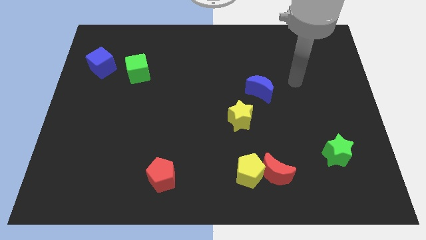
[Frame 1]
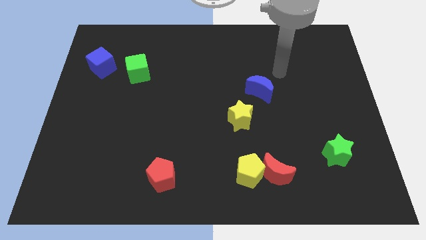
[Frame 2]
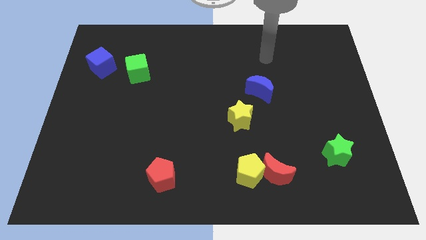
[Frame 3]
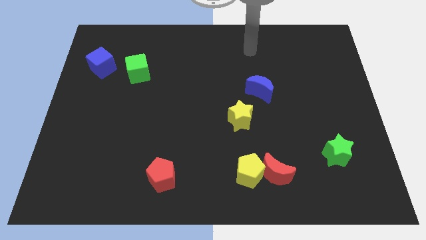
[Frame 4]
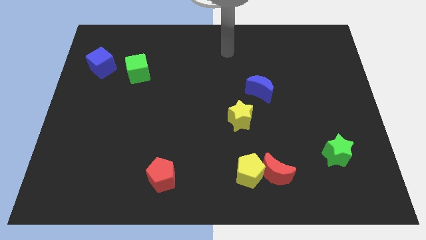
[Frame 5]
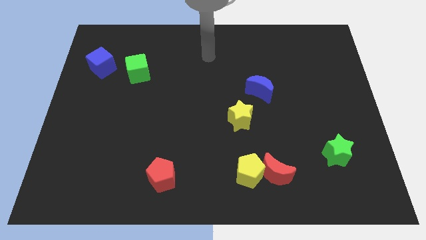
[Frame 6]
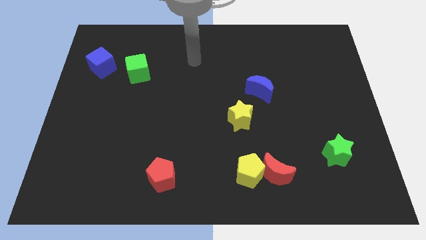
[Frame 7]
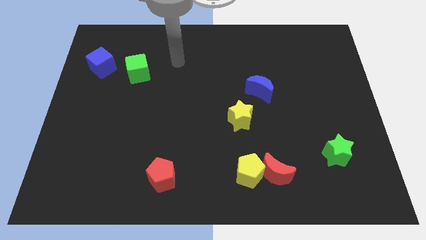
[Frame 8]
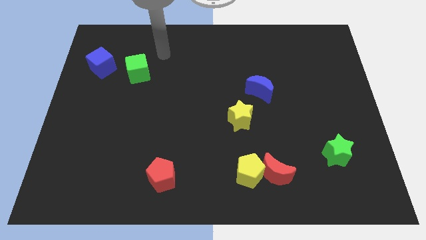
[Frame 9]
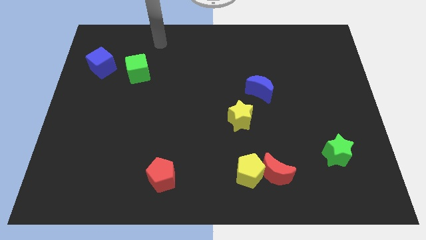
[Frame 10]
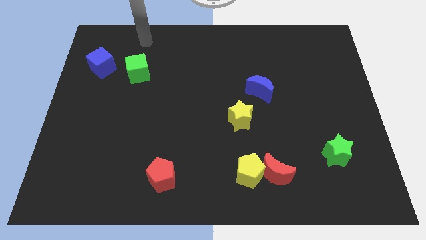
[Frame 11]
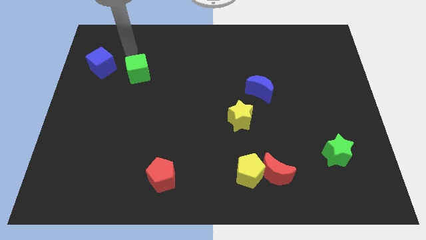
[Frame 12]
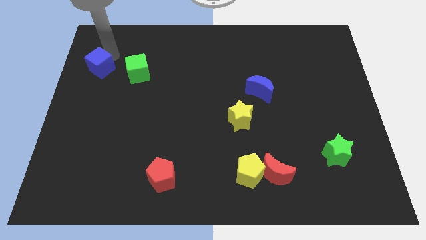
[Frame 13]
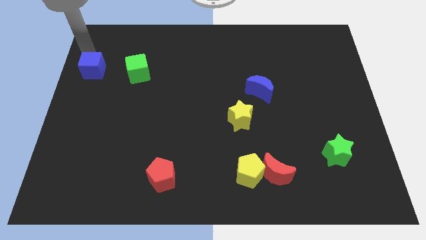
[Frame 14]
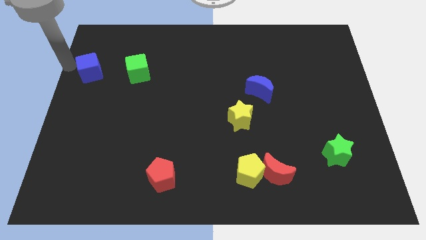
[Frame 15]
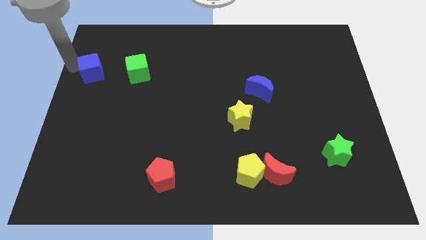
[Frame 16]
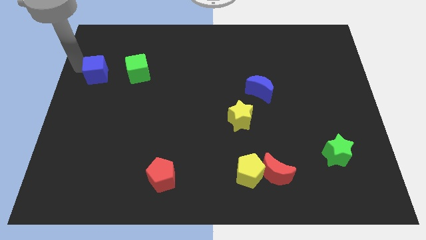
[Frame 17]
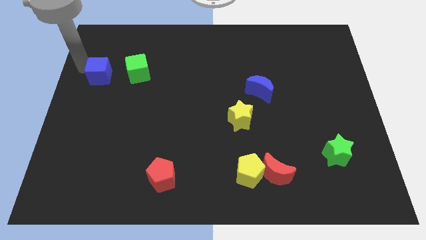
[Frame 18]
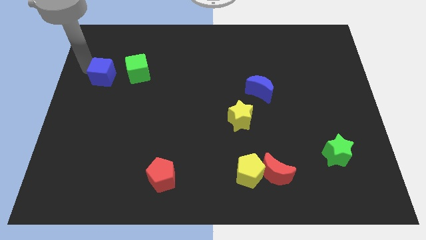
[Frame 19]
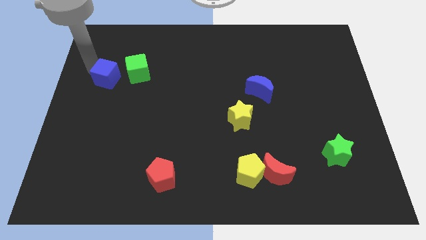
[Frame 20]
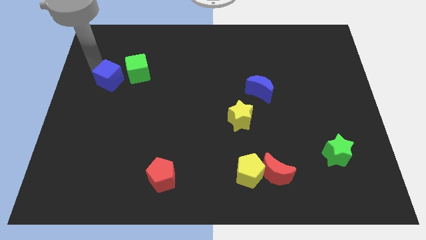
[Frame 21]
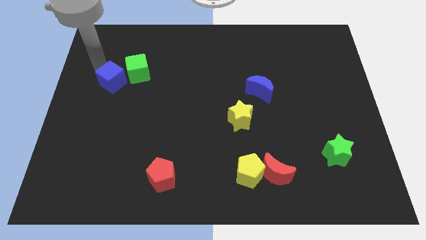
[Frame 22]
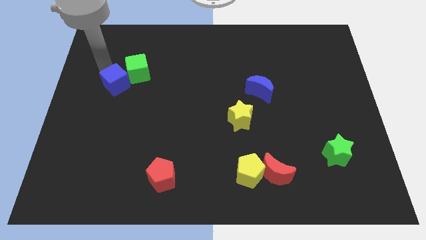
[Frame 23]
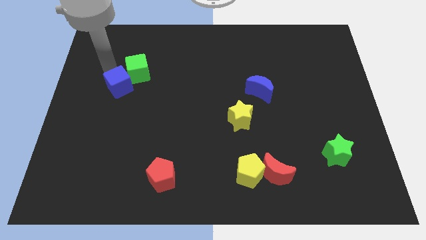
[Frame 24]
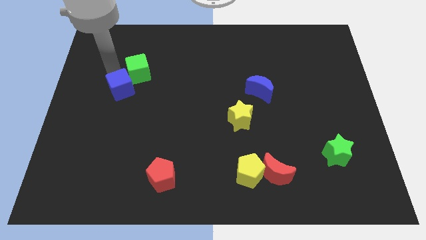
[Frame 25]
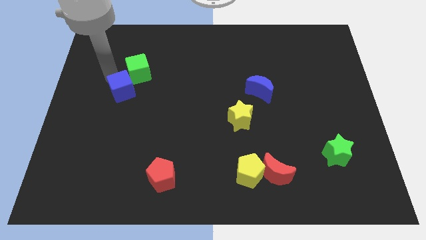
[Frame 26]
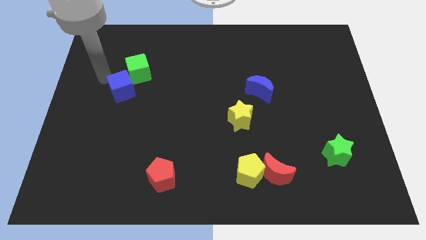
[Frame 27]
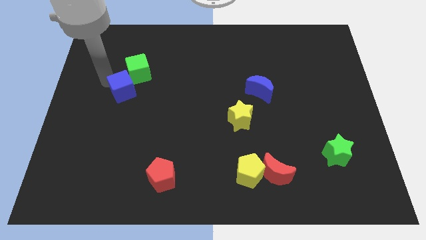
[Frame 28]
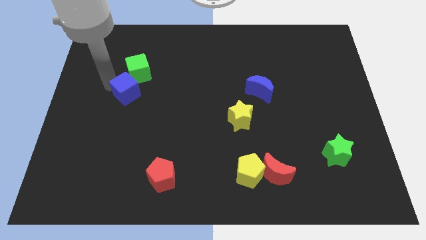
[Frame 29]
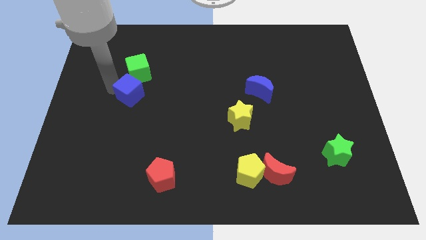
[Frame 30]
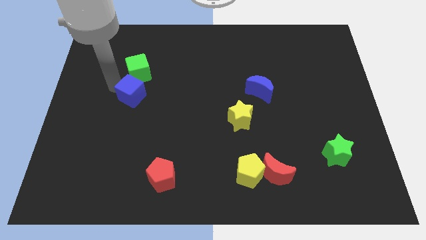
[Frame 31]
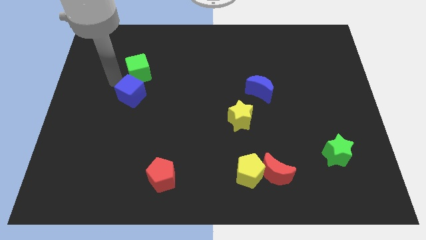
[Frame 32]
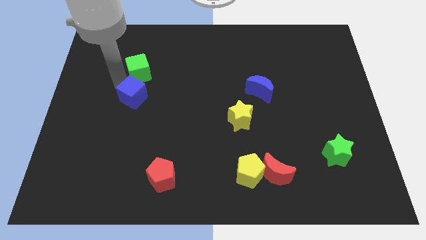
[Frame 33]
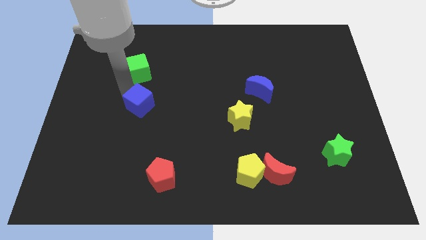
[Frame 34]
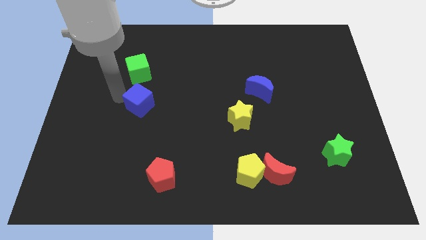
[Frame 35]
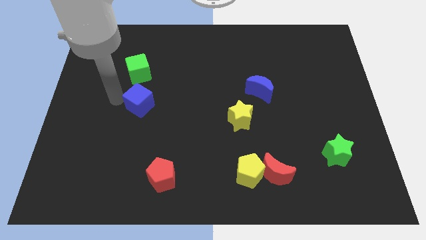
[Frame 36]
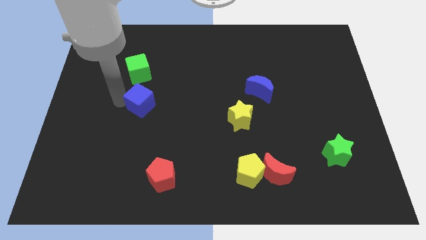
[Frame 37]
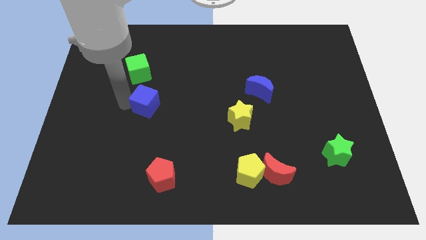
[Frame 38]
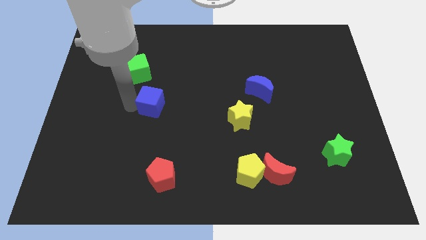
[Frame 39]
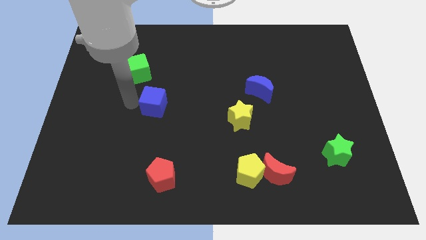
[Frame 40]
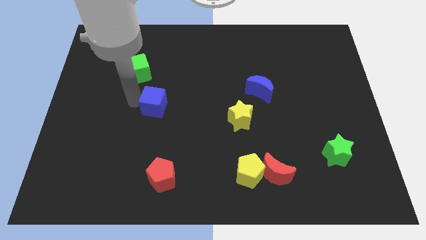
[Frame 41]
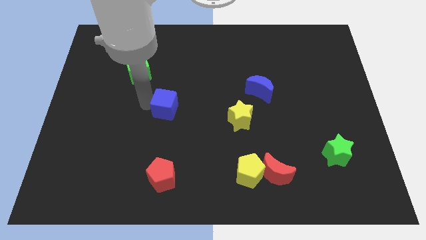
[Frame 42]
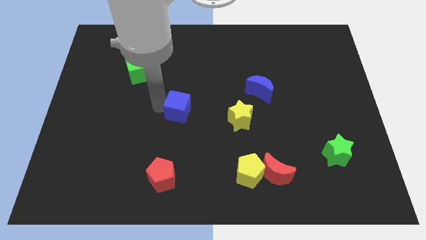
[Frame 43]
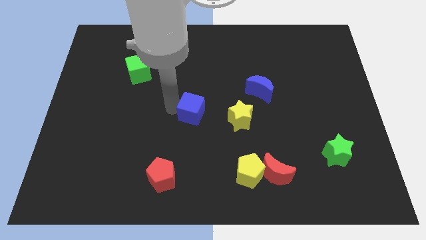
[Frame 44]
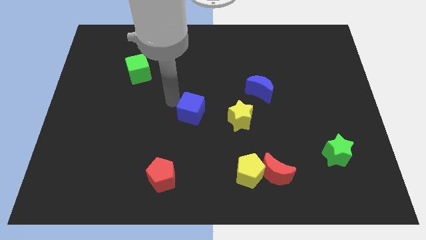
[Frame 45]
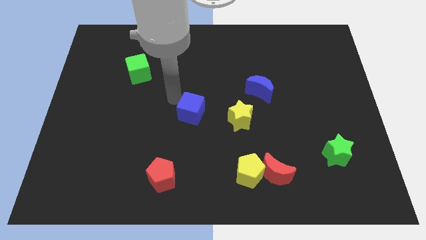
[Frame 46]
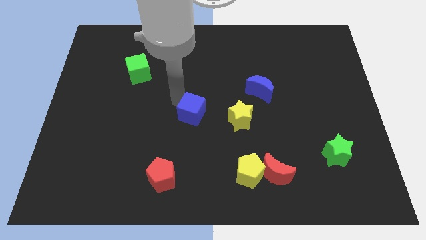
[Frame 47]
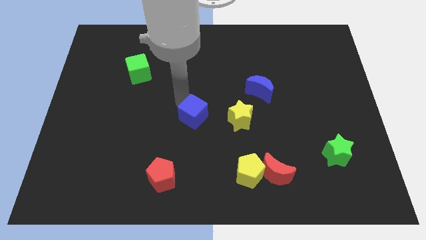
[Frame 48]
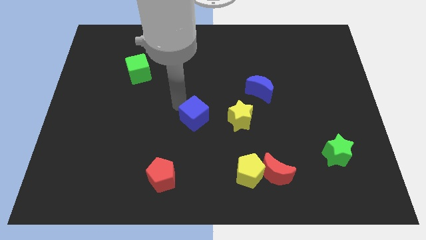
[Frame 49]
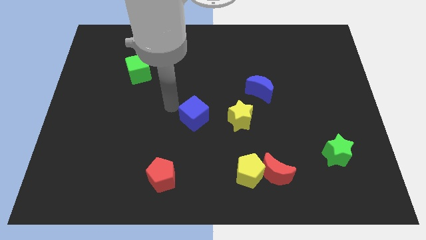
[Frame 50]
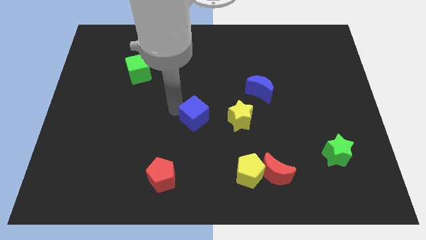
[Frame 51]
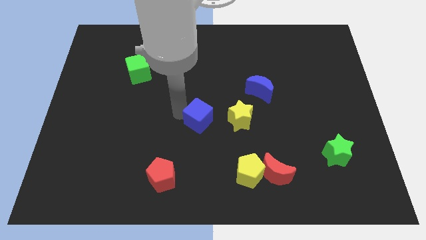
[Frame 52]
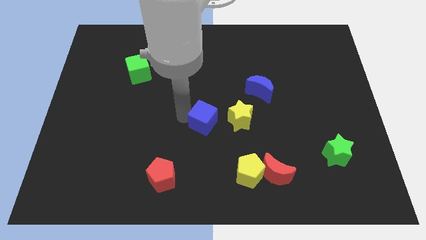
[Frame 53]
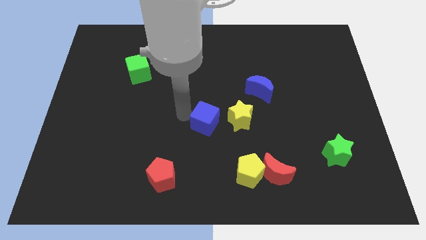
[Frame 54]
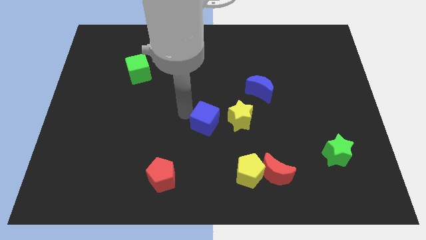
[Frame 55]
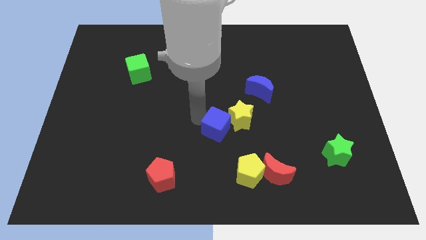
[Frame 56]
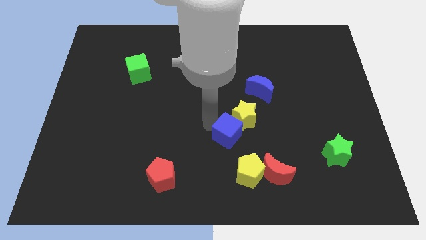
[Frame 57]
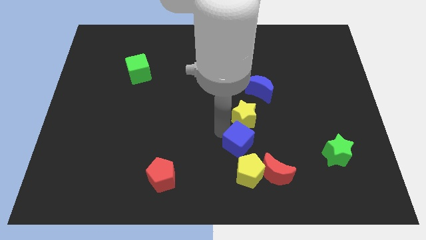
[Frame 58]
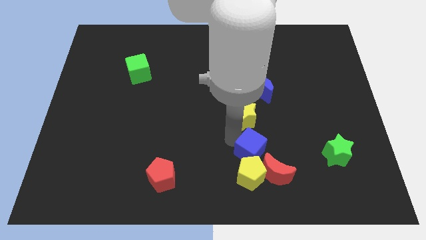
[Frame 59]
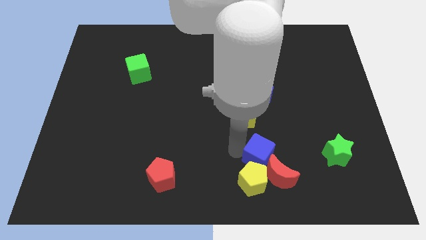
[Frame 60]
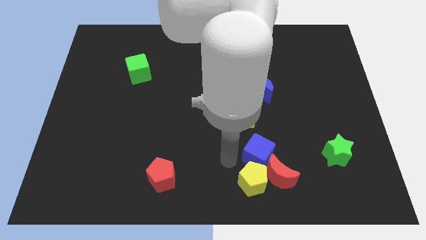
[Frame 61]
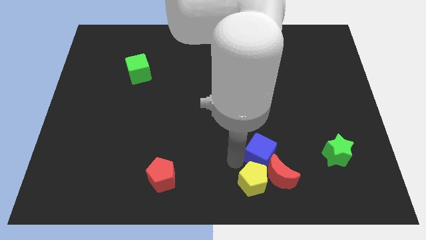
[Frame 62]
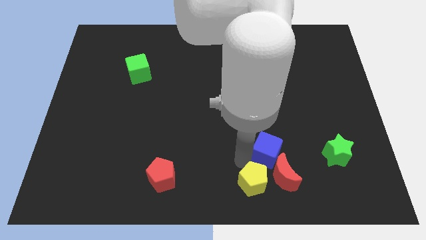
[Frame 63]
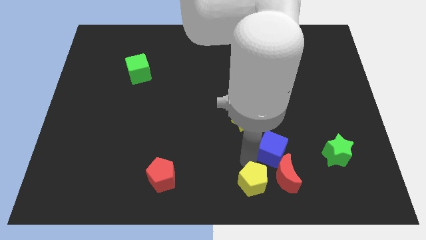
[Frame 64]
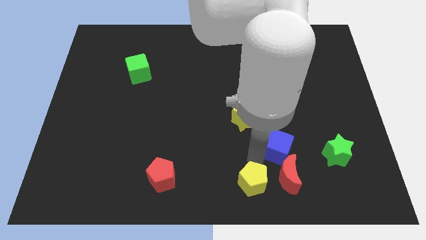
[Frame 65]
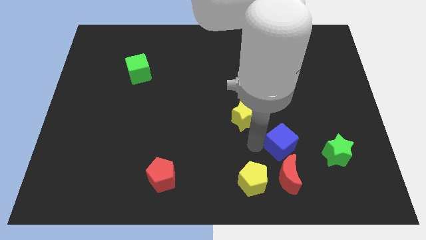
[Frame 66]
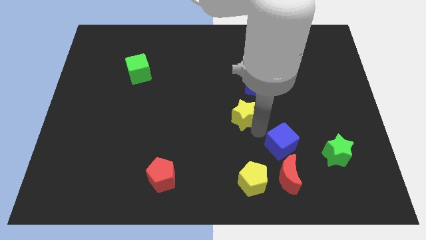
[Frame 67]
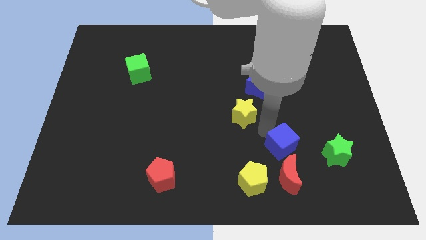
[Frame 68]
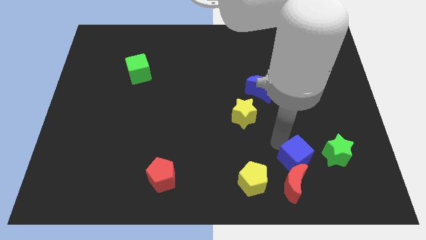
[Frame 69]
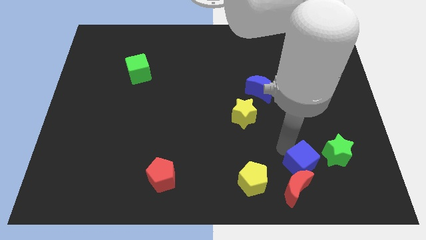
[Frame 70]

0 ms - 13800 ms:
push the blue cube to the bottom left side of the green star
